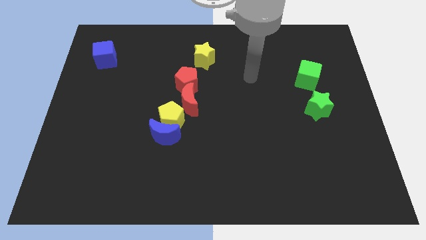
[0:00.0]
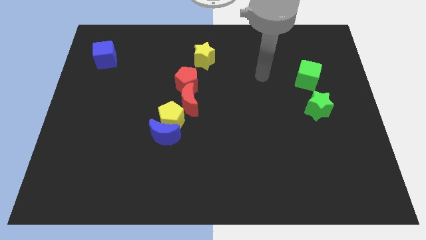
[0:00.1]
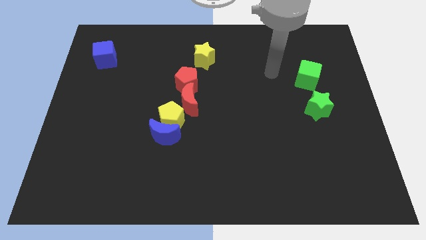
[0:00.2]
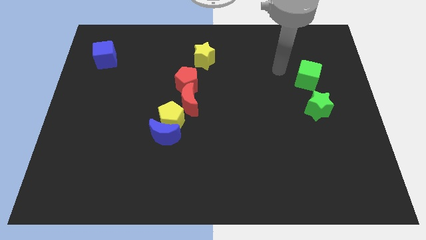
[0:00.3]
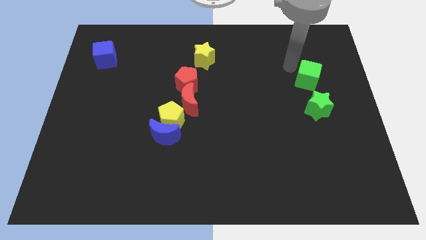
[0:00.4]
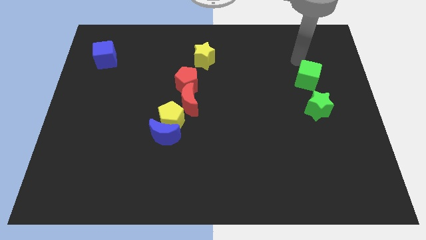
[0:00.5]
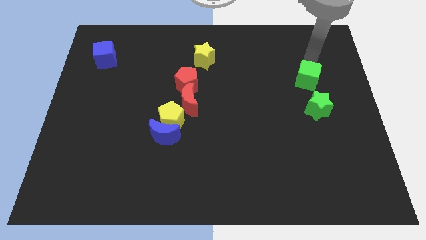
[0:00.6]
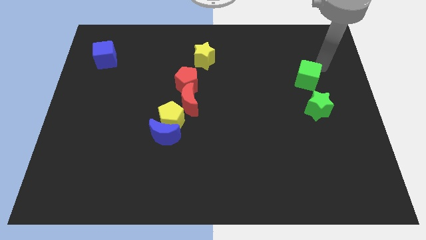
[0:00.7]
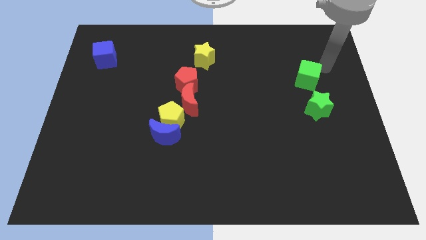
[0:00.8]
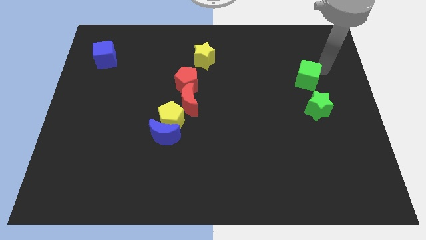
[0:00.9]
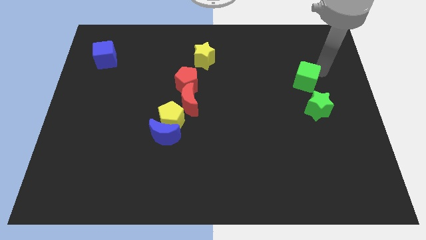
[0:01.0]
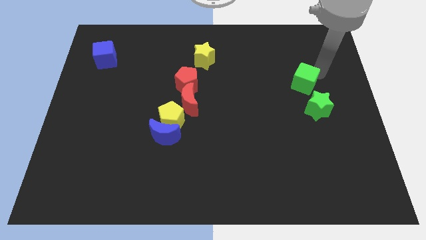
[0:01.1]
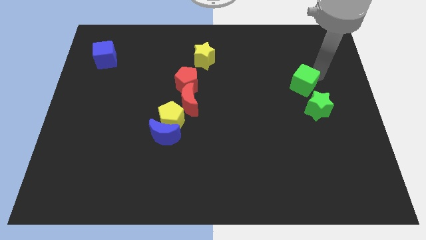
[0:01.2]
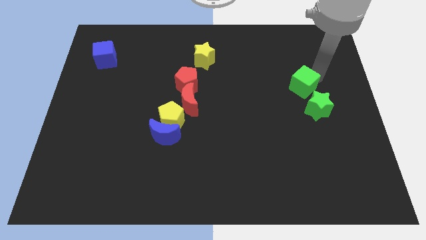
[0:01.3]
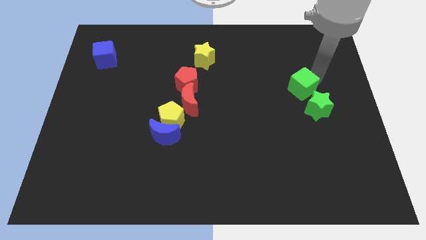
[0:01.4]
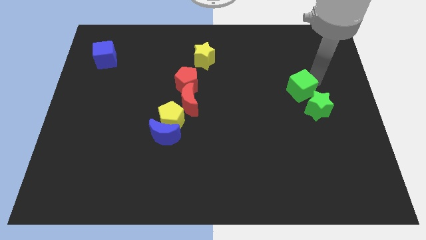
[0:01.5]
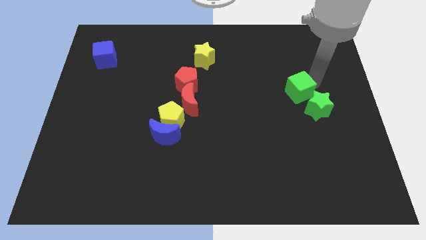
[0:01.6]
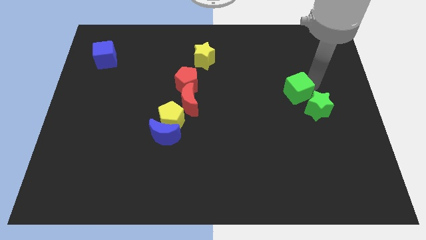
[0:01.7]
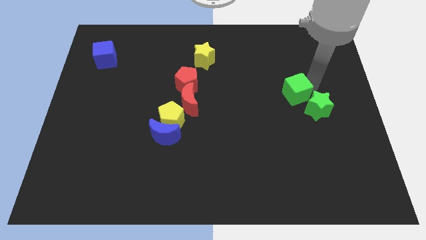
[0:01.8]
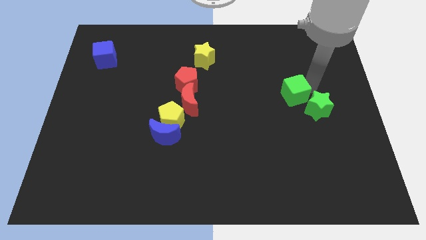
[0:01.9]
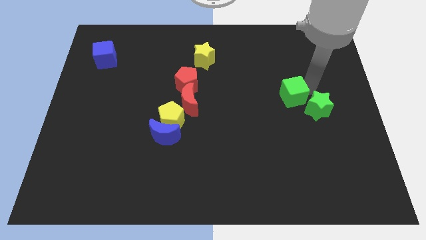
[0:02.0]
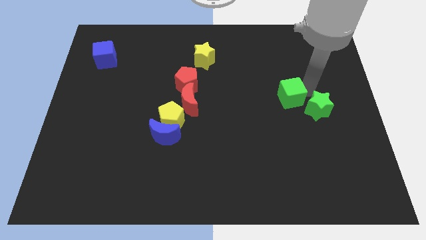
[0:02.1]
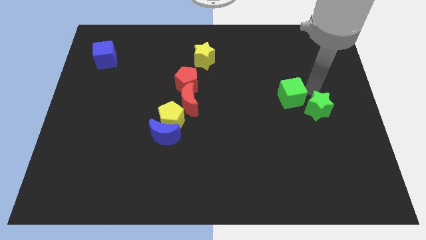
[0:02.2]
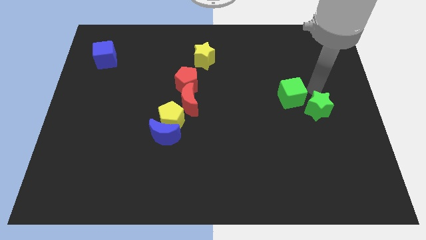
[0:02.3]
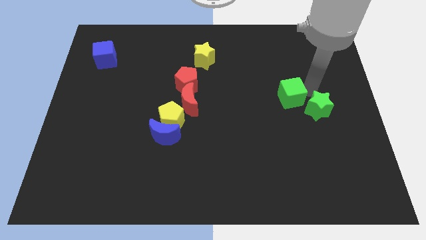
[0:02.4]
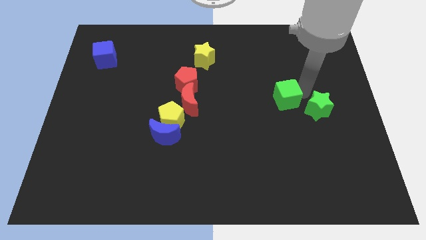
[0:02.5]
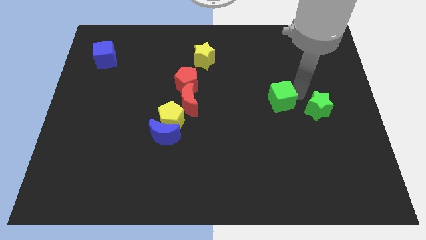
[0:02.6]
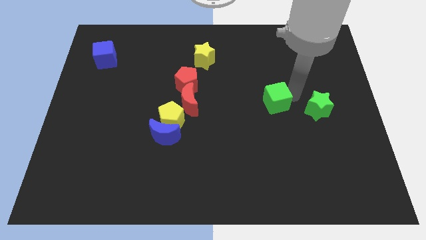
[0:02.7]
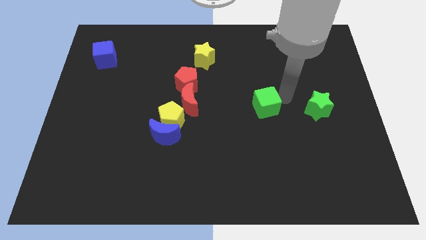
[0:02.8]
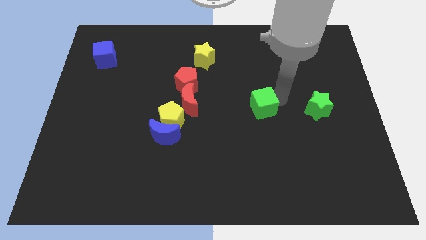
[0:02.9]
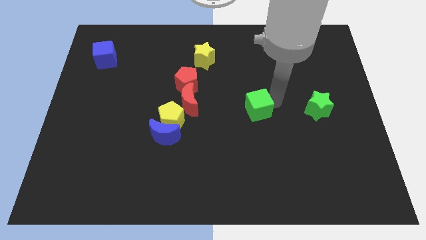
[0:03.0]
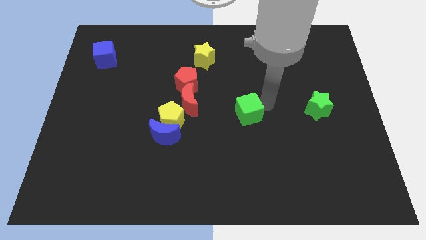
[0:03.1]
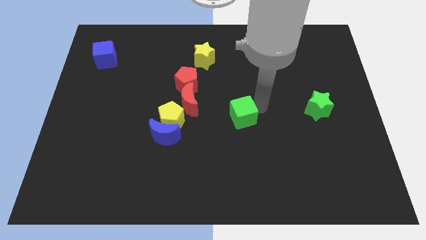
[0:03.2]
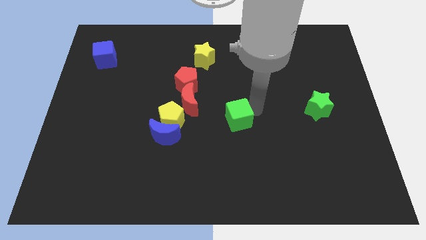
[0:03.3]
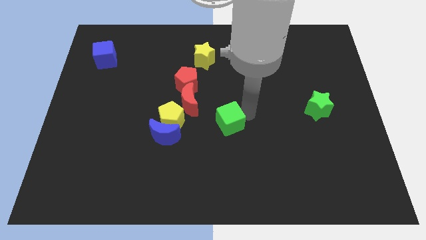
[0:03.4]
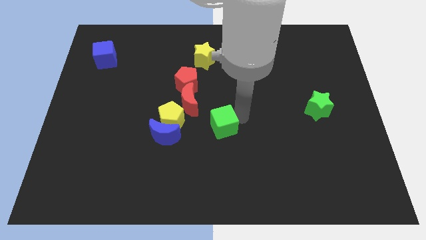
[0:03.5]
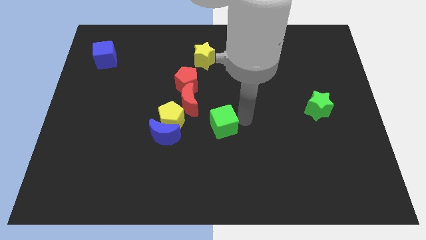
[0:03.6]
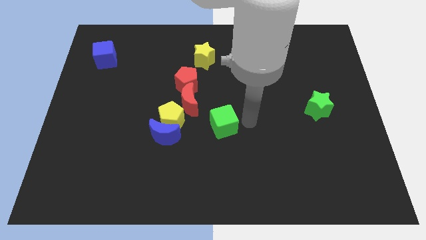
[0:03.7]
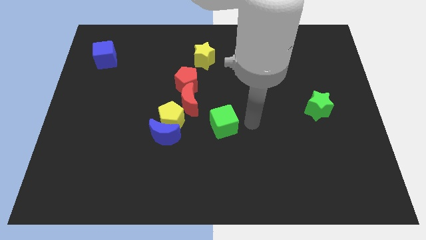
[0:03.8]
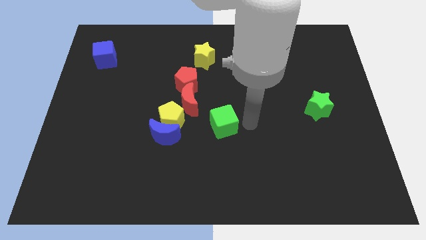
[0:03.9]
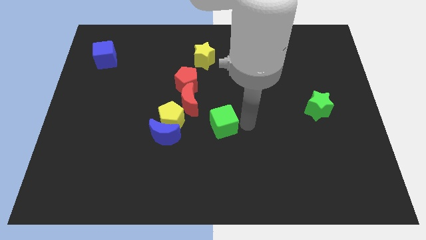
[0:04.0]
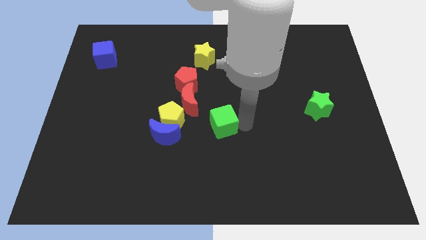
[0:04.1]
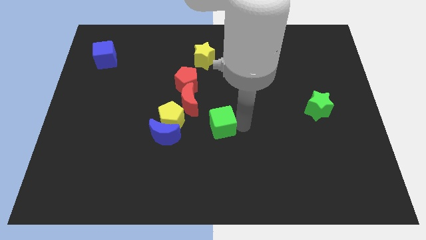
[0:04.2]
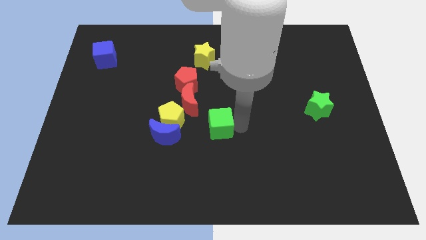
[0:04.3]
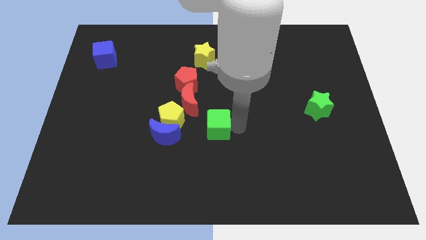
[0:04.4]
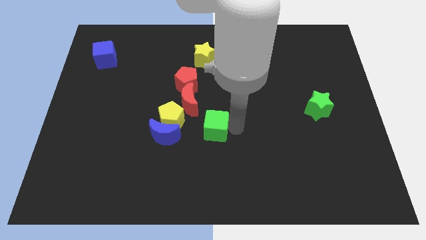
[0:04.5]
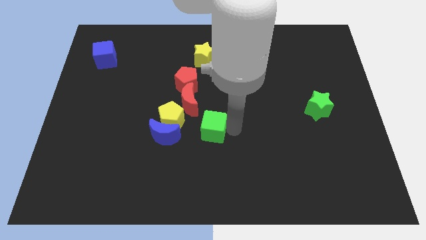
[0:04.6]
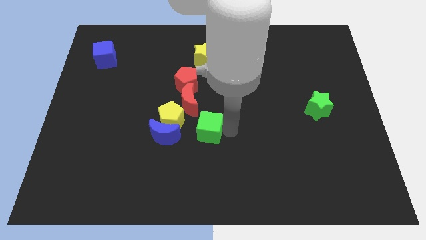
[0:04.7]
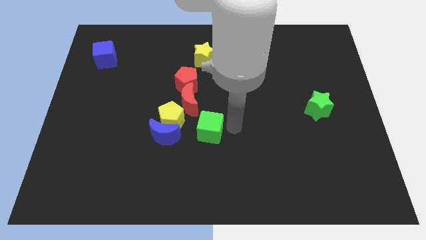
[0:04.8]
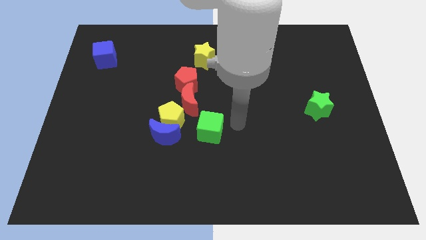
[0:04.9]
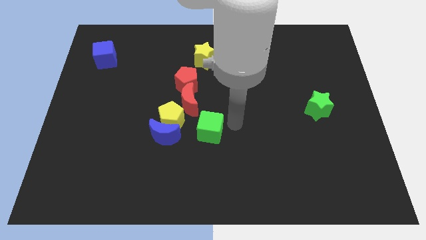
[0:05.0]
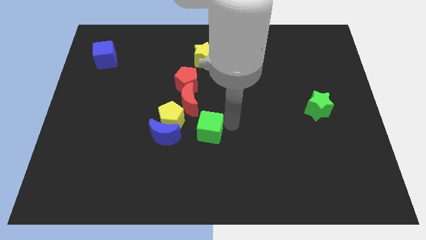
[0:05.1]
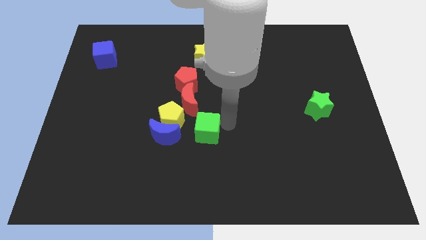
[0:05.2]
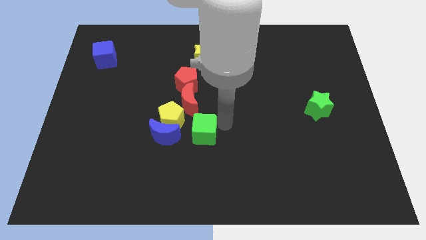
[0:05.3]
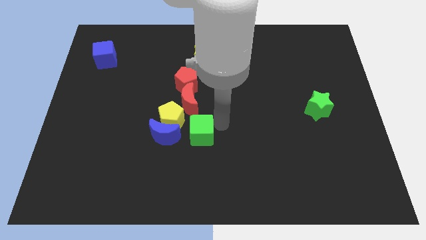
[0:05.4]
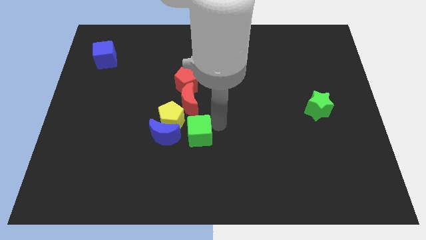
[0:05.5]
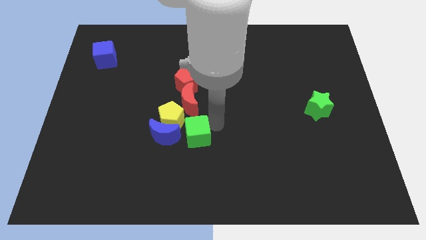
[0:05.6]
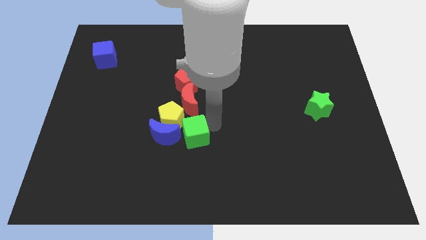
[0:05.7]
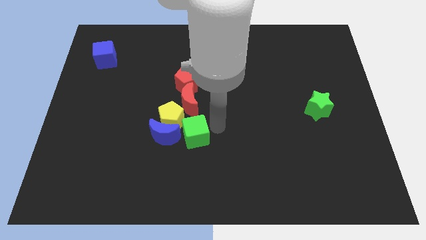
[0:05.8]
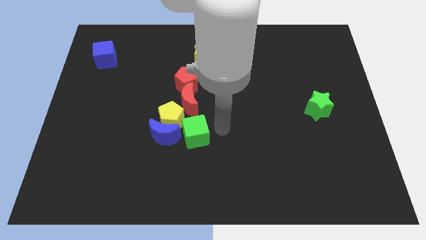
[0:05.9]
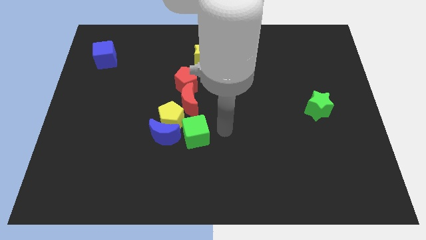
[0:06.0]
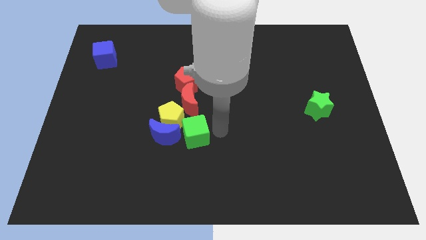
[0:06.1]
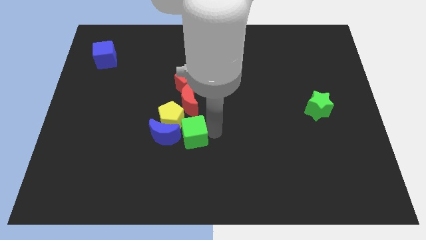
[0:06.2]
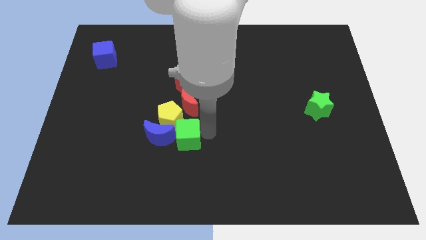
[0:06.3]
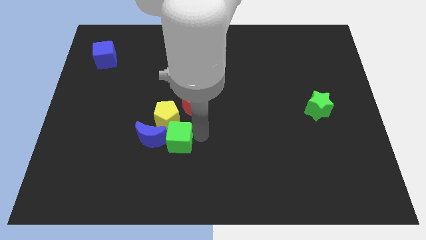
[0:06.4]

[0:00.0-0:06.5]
slide the green cube towards the blue moon

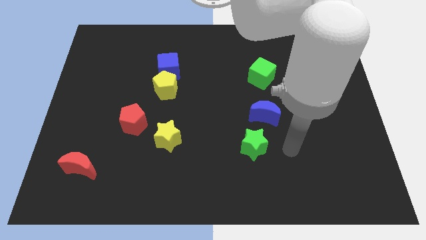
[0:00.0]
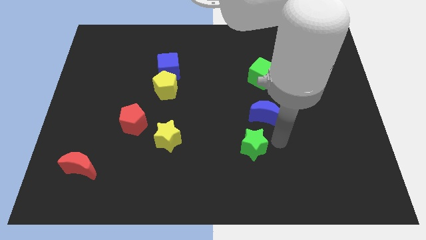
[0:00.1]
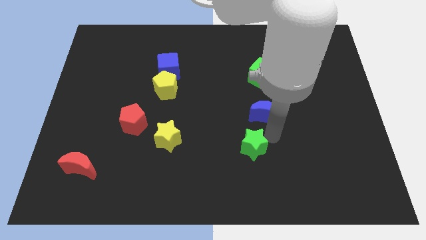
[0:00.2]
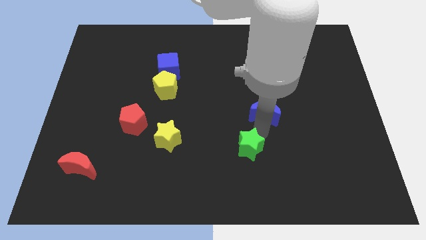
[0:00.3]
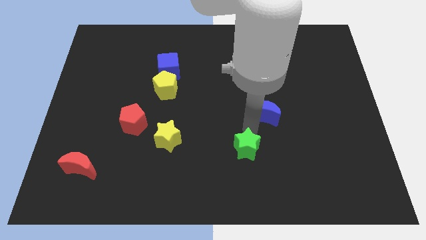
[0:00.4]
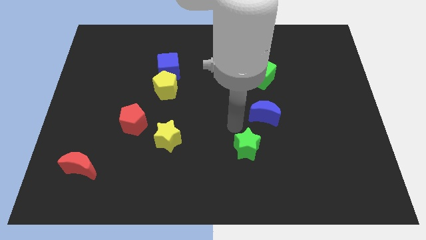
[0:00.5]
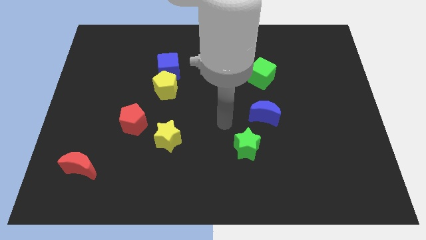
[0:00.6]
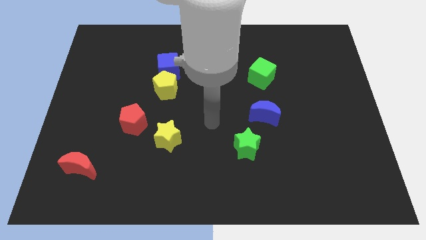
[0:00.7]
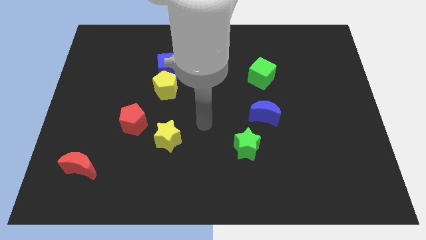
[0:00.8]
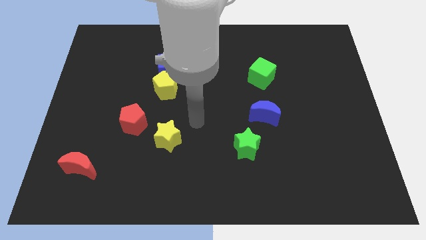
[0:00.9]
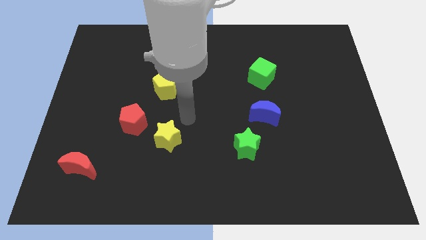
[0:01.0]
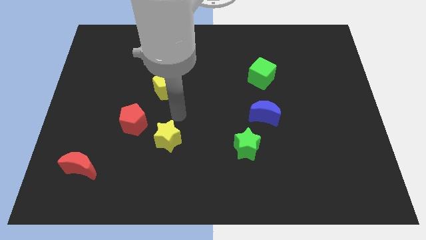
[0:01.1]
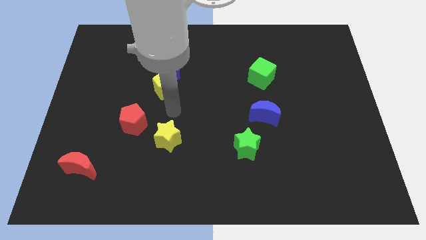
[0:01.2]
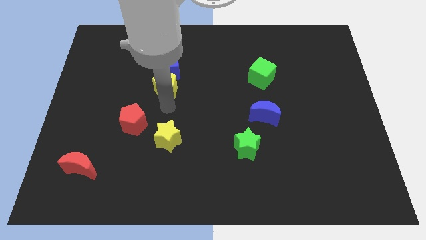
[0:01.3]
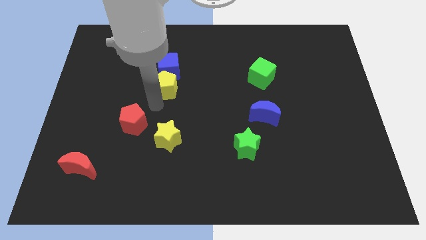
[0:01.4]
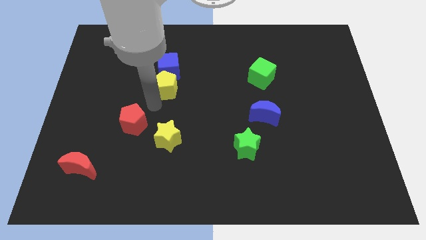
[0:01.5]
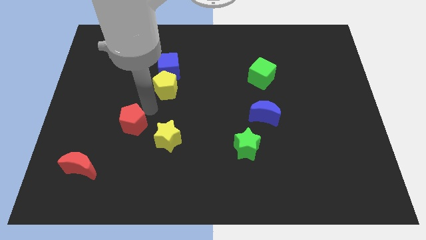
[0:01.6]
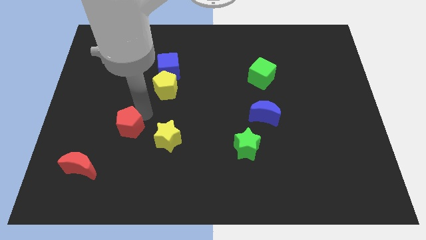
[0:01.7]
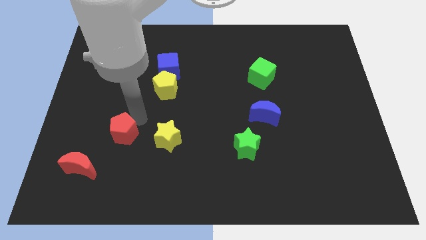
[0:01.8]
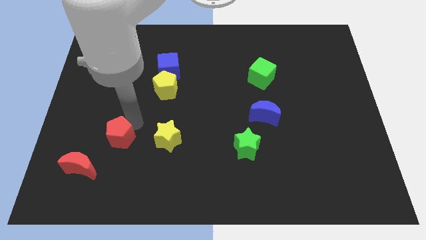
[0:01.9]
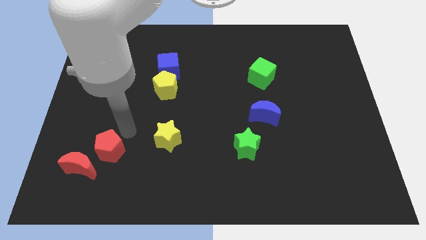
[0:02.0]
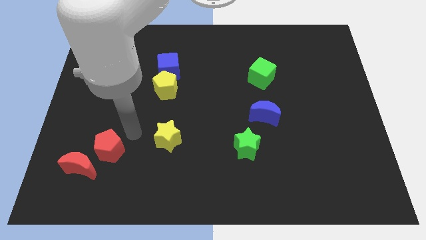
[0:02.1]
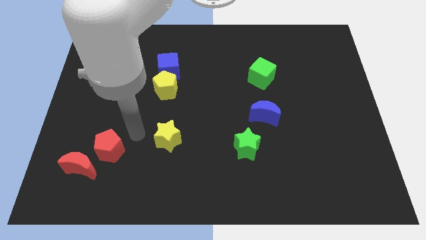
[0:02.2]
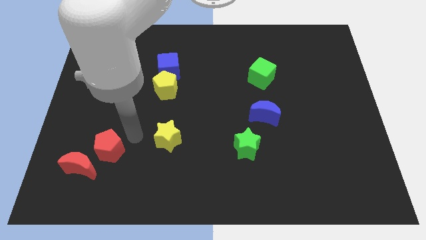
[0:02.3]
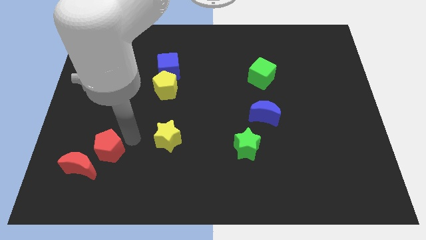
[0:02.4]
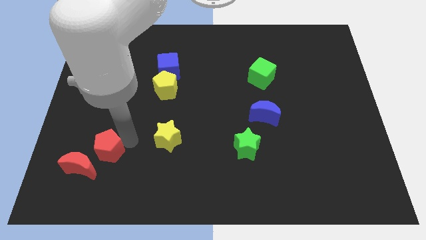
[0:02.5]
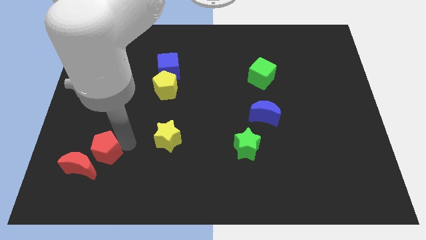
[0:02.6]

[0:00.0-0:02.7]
put the red pentagon close to the red moon
